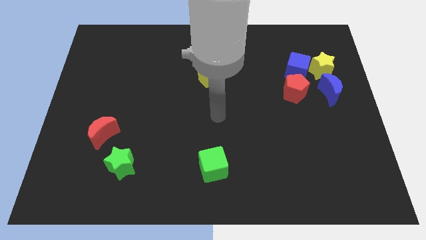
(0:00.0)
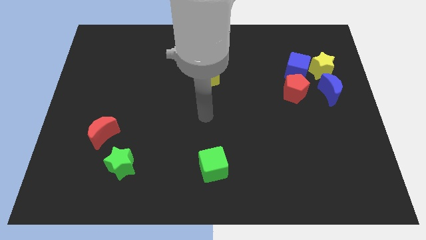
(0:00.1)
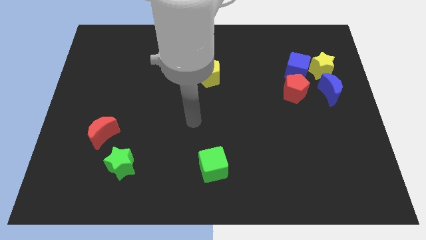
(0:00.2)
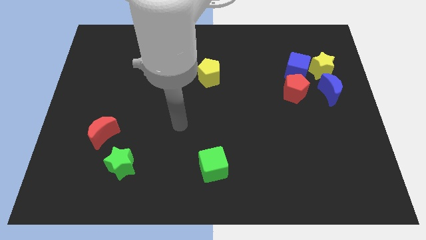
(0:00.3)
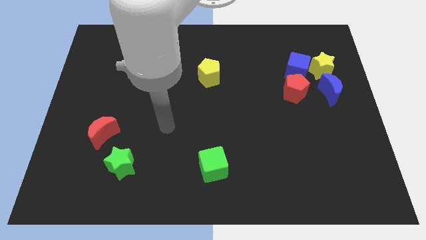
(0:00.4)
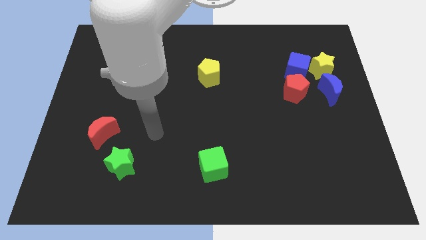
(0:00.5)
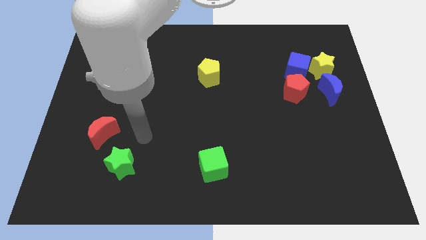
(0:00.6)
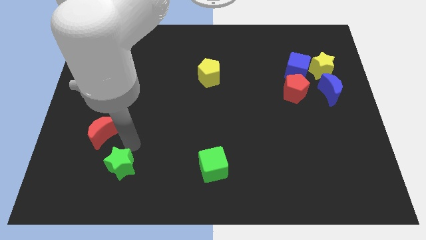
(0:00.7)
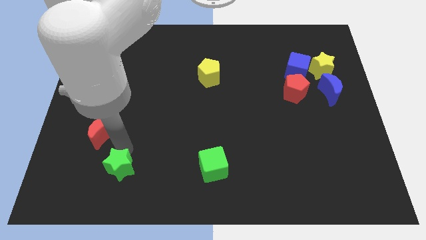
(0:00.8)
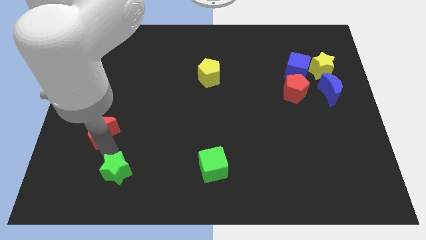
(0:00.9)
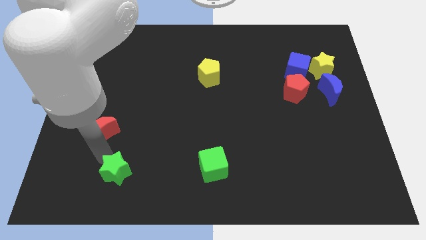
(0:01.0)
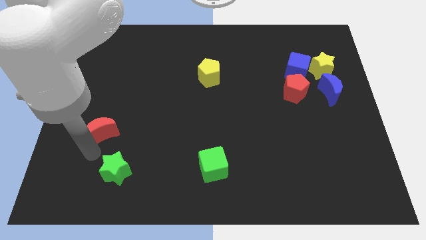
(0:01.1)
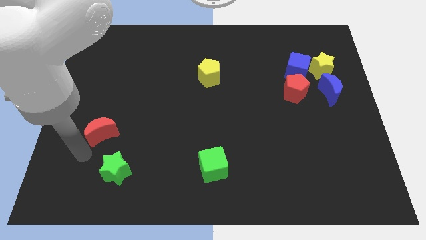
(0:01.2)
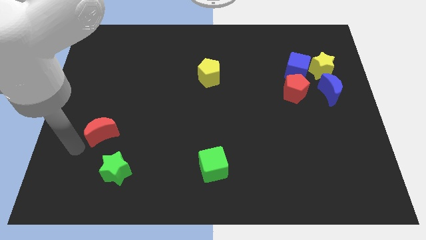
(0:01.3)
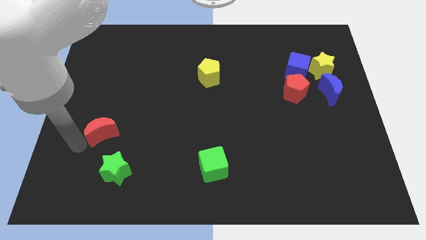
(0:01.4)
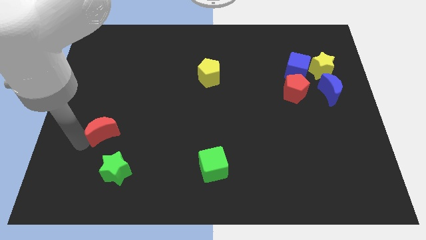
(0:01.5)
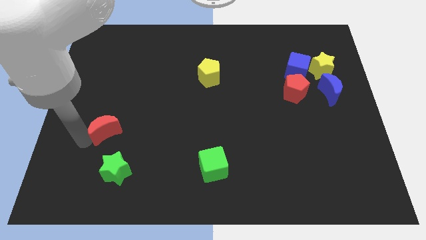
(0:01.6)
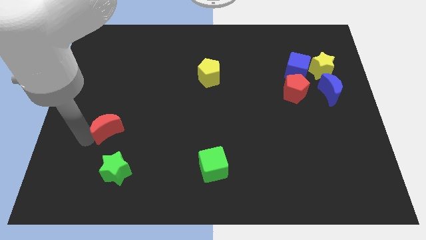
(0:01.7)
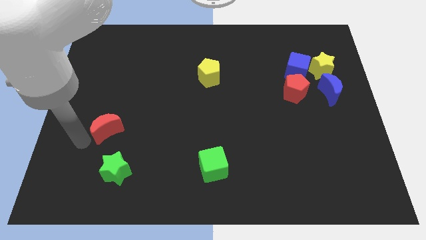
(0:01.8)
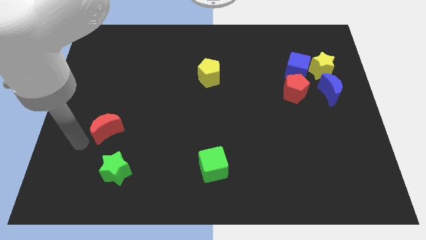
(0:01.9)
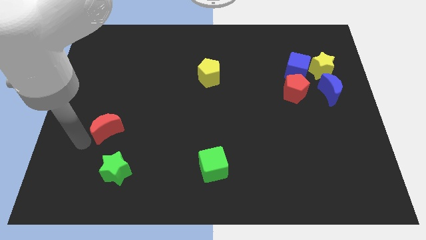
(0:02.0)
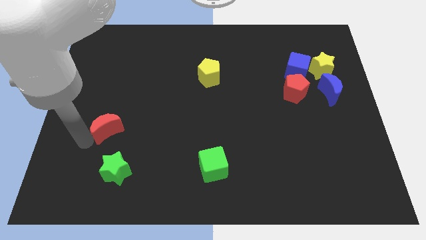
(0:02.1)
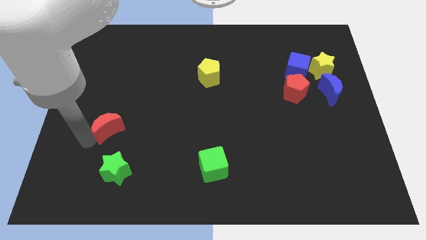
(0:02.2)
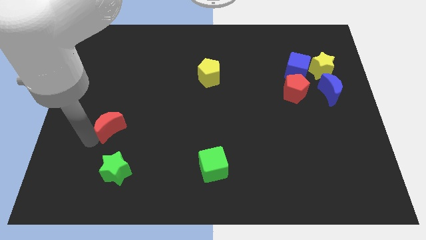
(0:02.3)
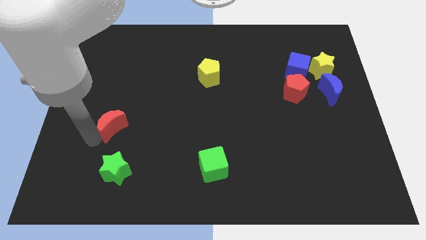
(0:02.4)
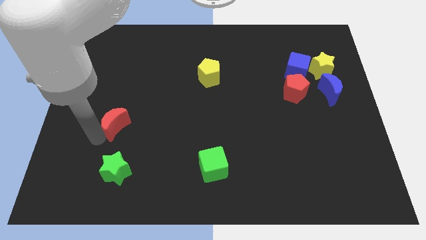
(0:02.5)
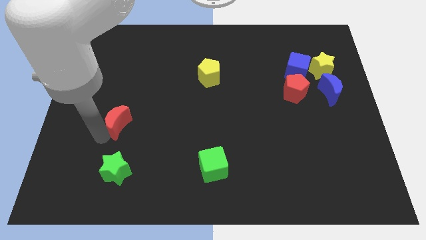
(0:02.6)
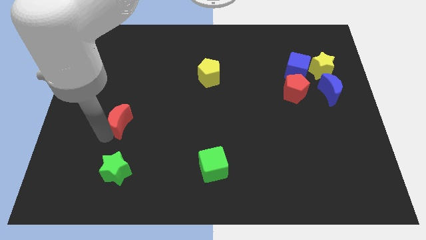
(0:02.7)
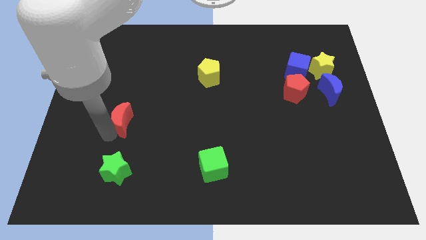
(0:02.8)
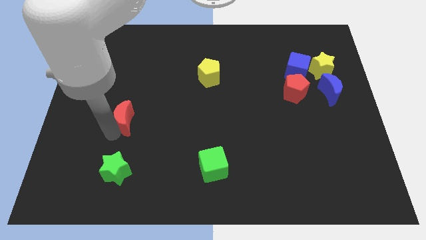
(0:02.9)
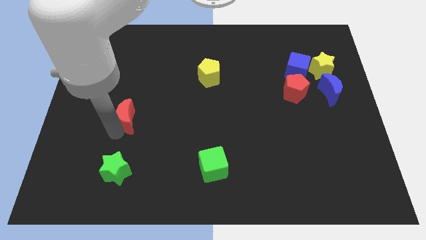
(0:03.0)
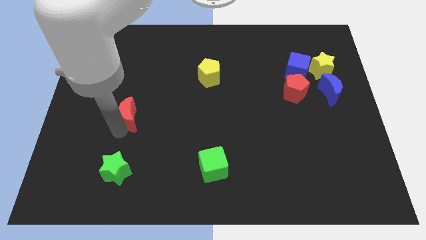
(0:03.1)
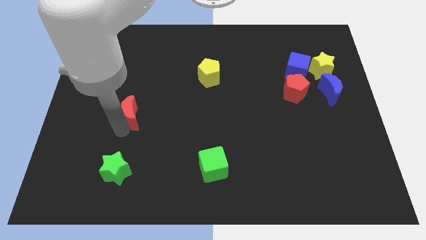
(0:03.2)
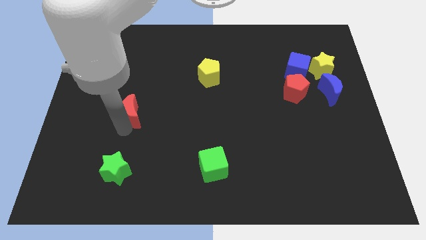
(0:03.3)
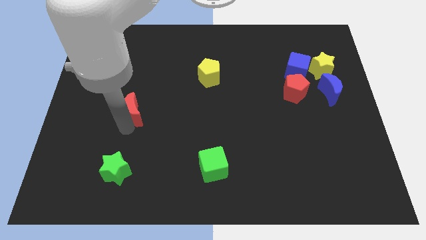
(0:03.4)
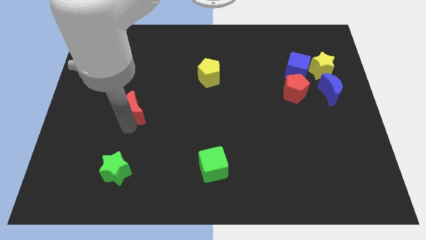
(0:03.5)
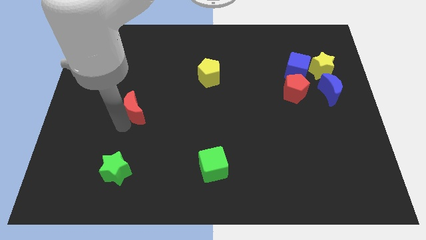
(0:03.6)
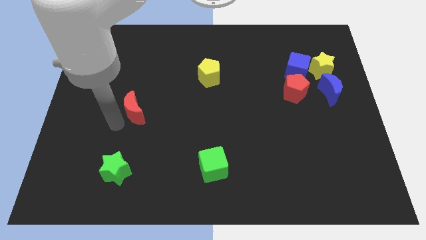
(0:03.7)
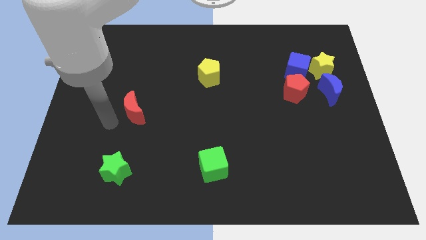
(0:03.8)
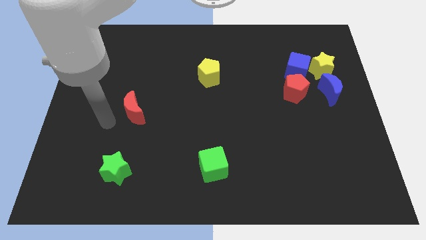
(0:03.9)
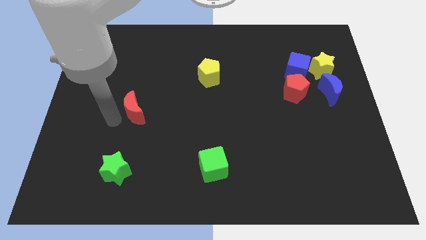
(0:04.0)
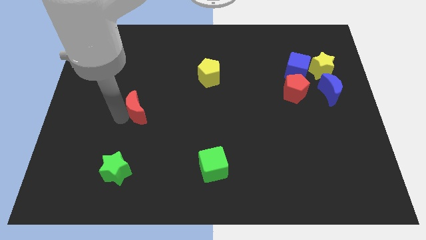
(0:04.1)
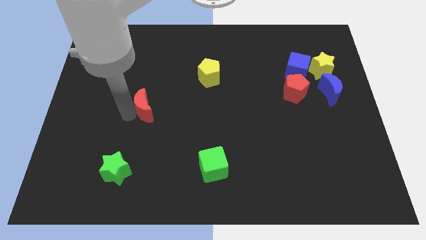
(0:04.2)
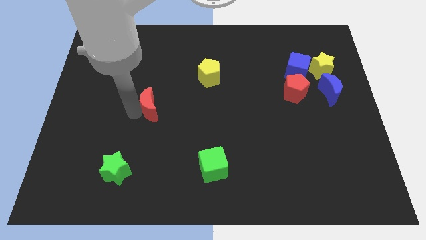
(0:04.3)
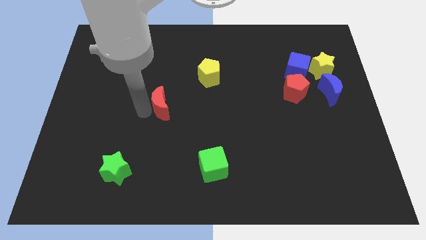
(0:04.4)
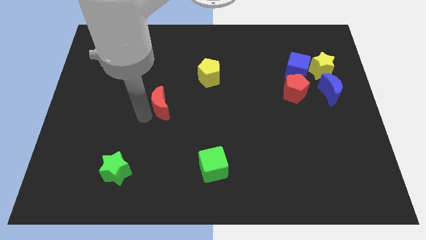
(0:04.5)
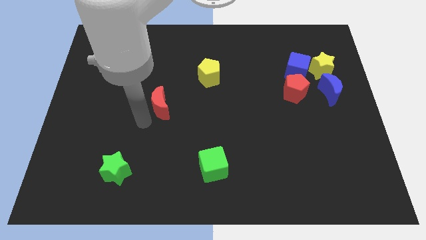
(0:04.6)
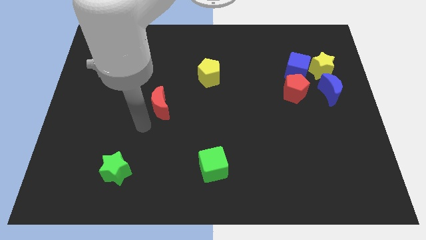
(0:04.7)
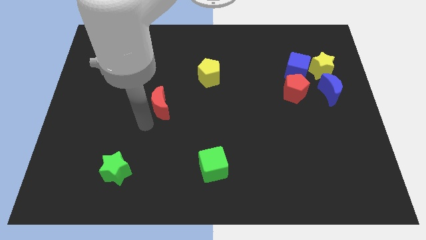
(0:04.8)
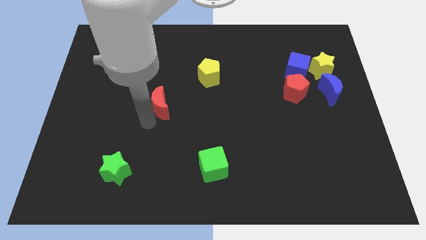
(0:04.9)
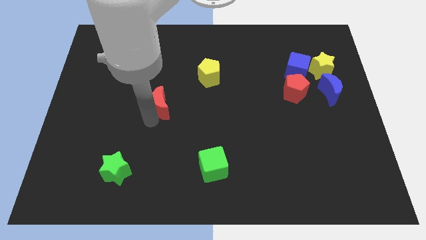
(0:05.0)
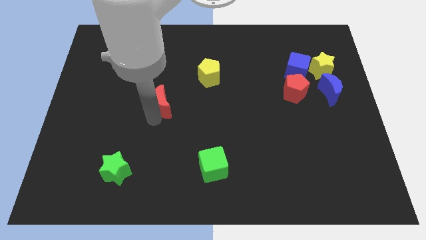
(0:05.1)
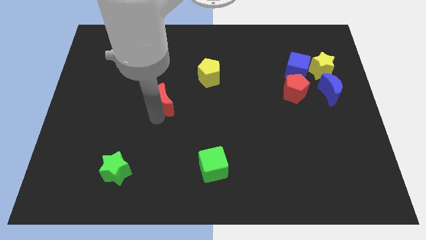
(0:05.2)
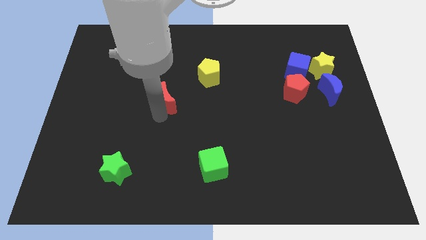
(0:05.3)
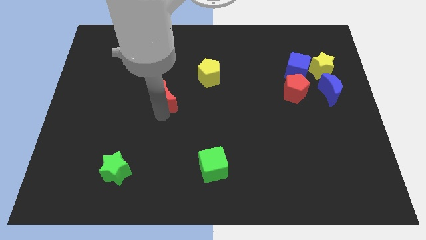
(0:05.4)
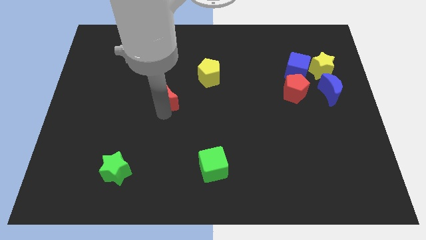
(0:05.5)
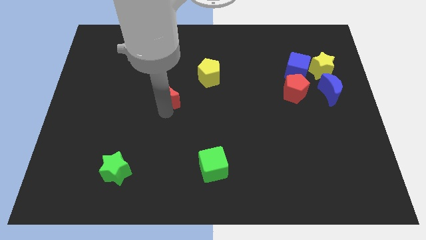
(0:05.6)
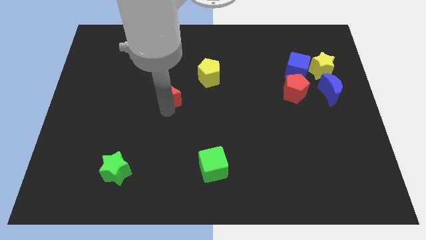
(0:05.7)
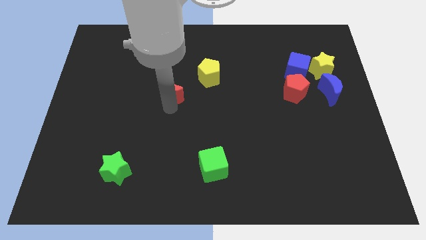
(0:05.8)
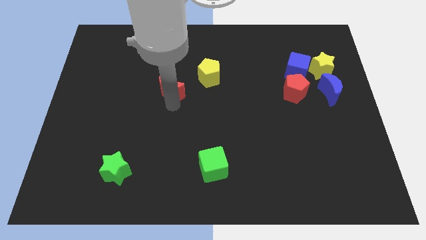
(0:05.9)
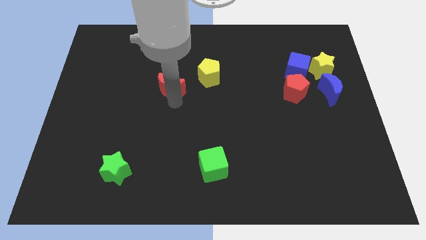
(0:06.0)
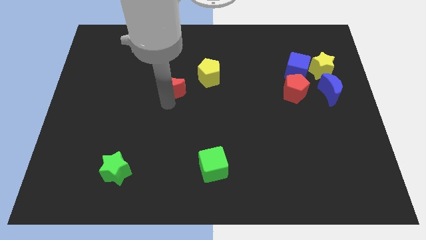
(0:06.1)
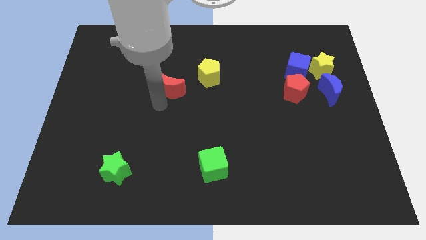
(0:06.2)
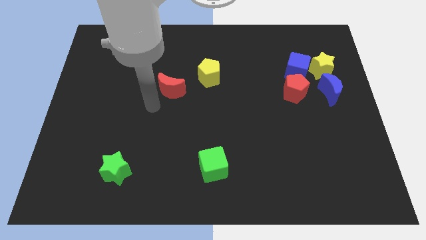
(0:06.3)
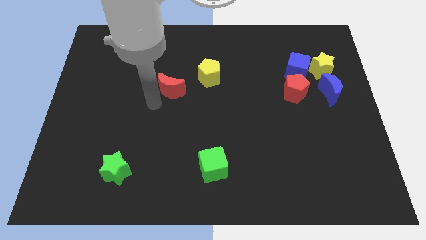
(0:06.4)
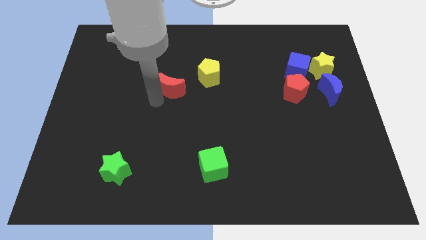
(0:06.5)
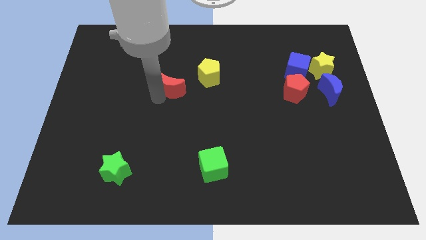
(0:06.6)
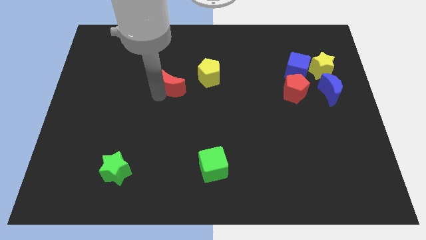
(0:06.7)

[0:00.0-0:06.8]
move the red moon diagonally up and to the right

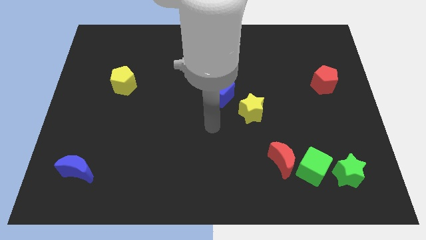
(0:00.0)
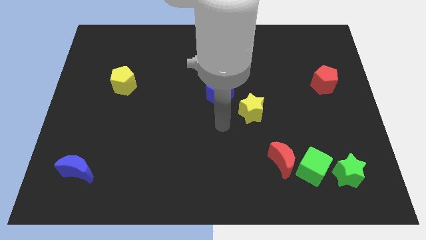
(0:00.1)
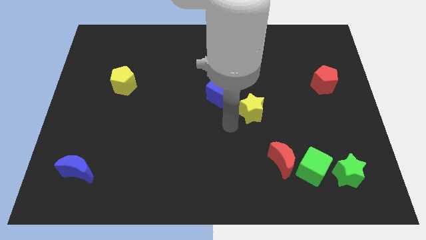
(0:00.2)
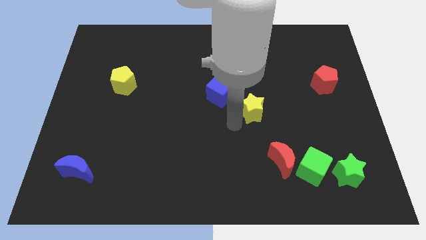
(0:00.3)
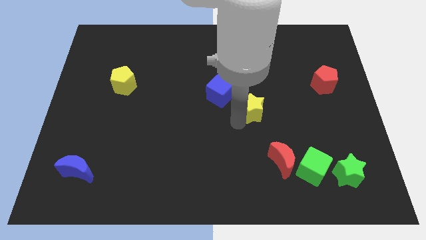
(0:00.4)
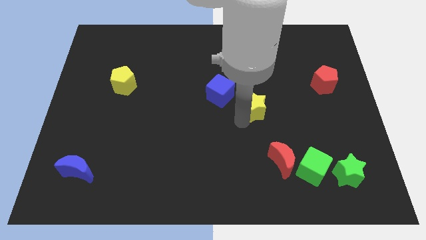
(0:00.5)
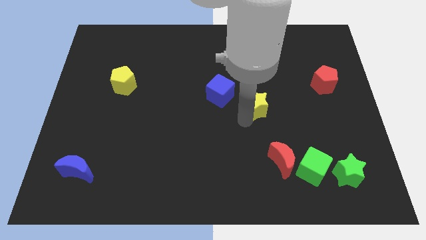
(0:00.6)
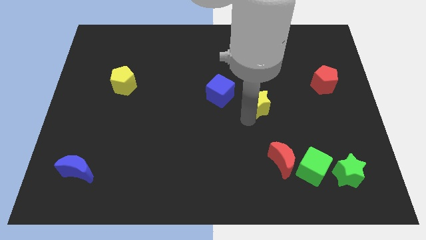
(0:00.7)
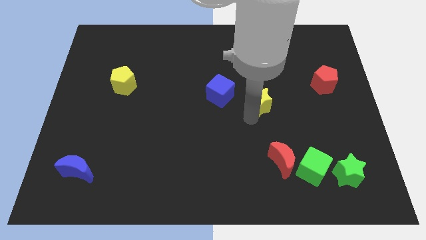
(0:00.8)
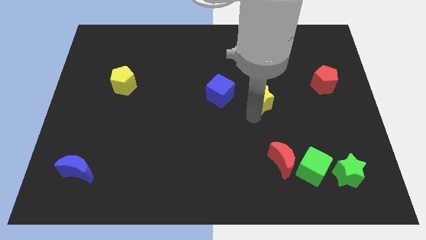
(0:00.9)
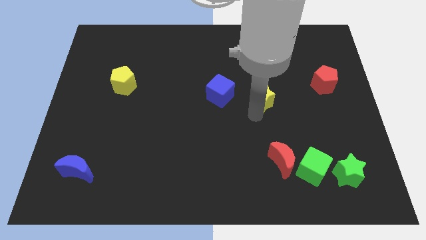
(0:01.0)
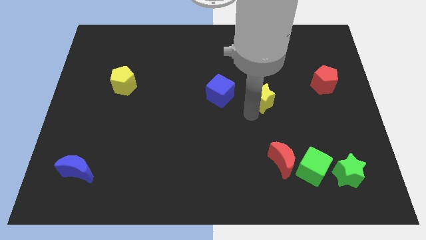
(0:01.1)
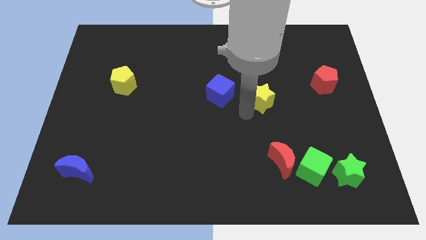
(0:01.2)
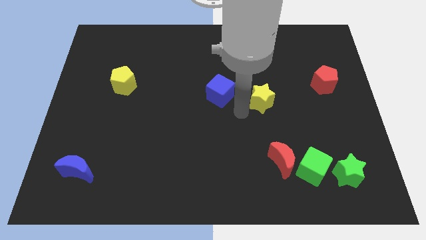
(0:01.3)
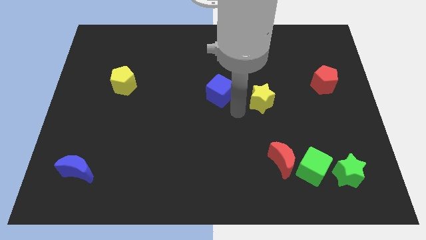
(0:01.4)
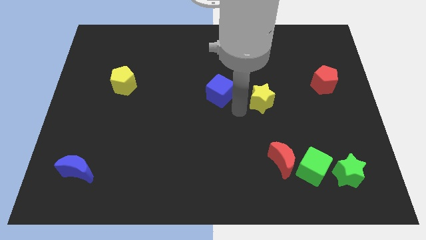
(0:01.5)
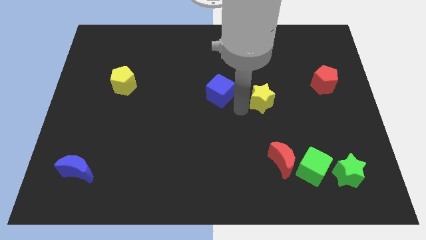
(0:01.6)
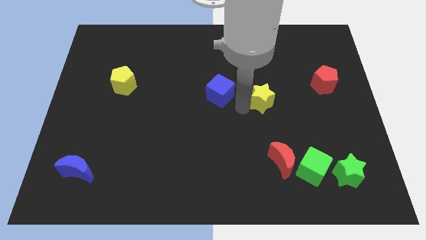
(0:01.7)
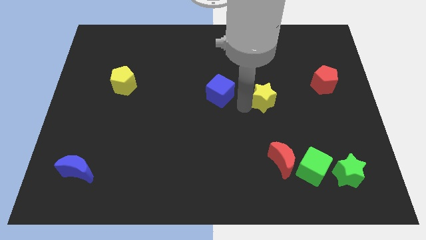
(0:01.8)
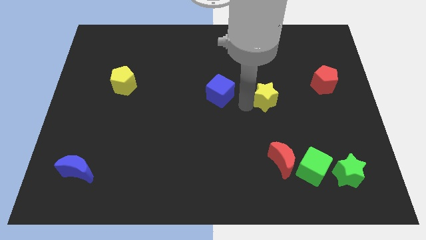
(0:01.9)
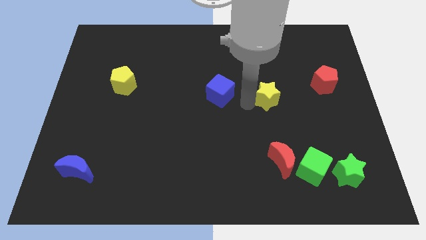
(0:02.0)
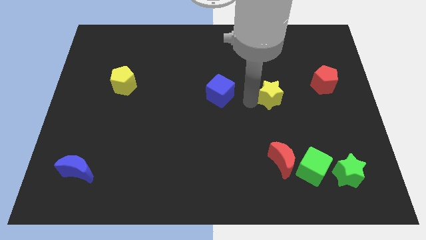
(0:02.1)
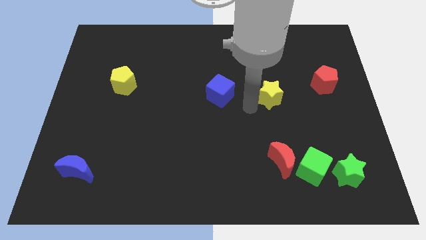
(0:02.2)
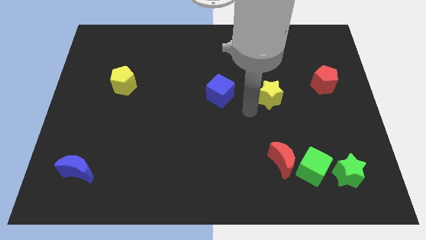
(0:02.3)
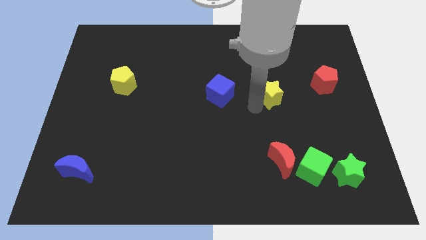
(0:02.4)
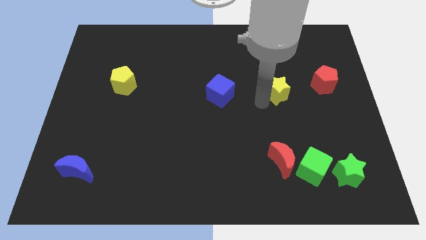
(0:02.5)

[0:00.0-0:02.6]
move the yellow star a little bit diagonally upwards and right
